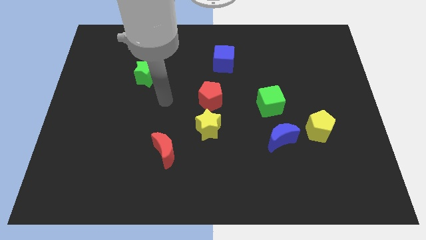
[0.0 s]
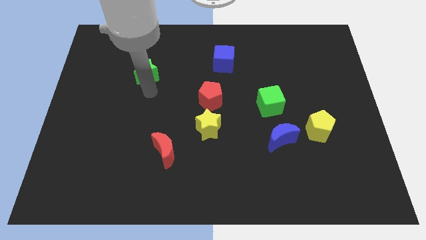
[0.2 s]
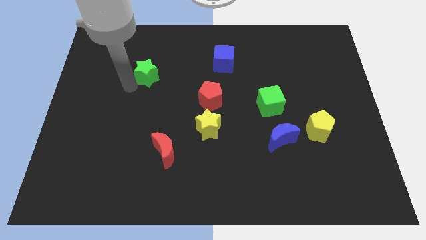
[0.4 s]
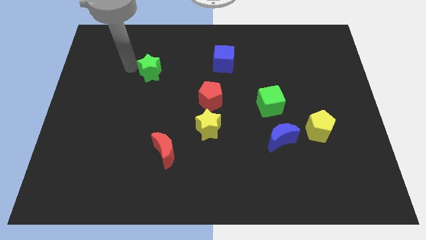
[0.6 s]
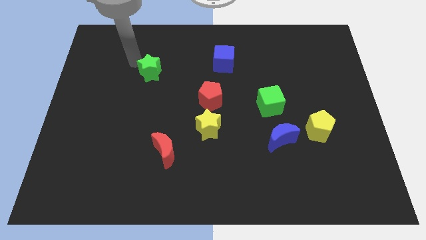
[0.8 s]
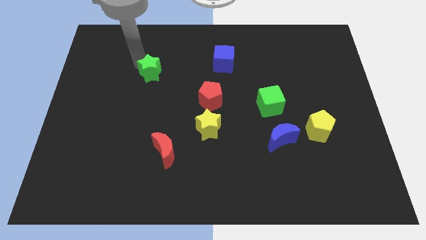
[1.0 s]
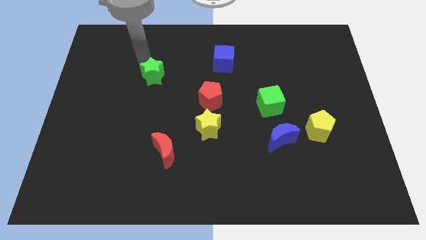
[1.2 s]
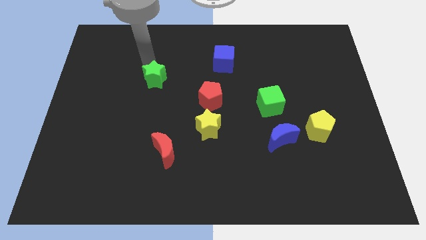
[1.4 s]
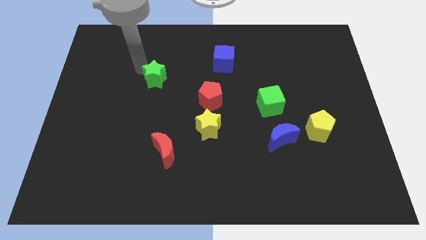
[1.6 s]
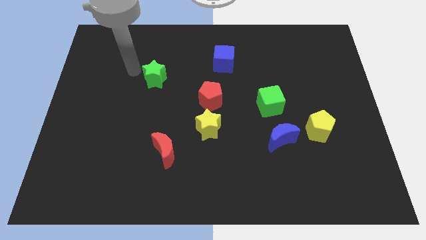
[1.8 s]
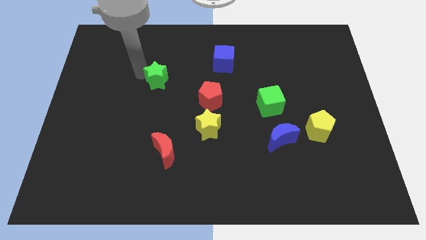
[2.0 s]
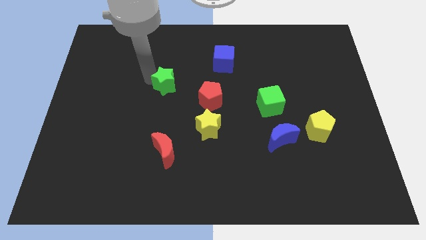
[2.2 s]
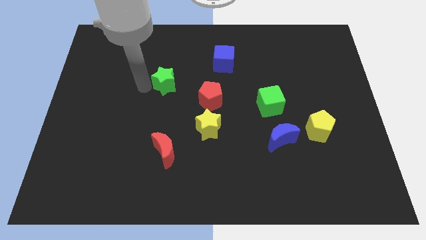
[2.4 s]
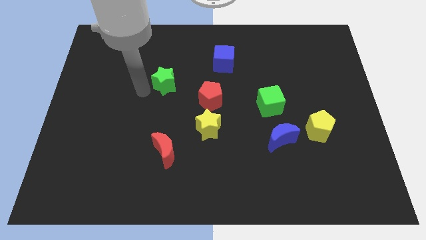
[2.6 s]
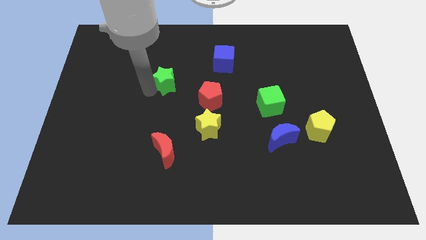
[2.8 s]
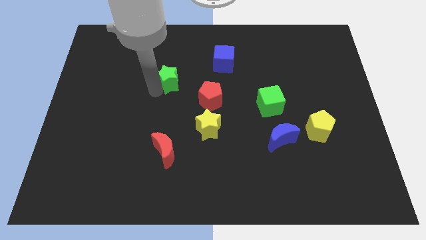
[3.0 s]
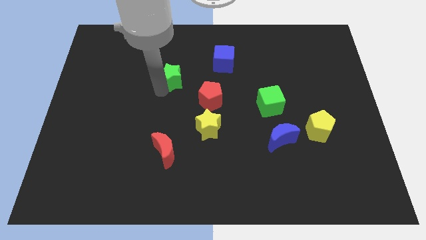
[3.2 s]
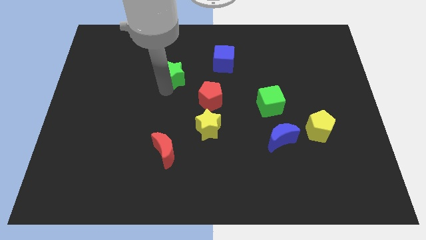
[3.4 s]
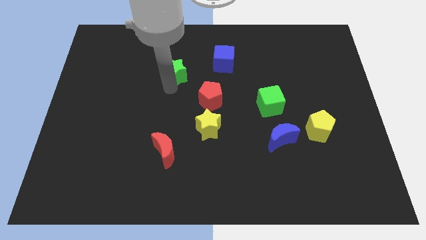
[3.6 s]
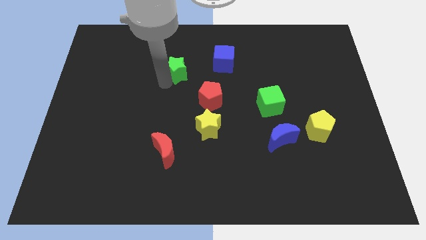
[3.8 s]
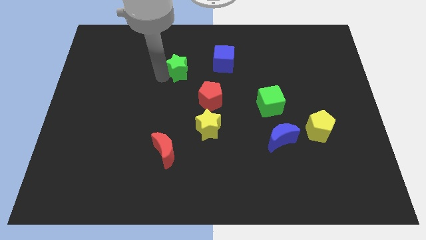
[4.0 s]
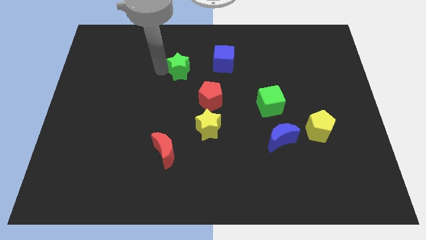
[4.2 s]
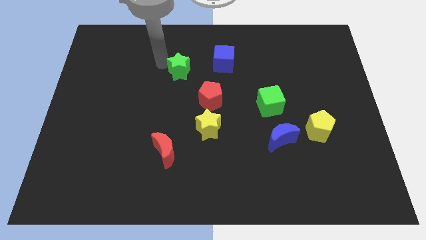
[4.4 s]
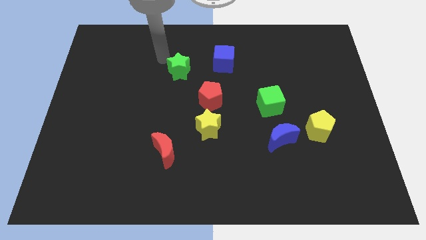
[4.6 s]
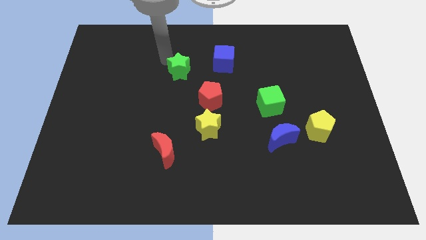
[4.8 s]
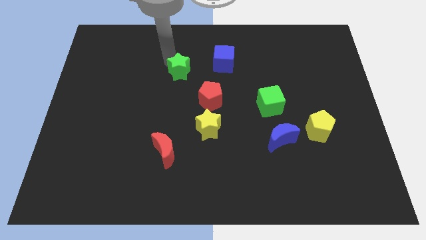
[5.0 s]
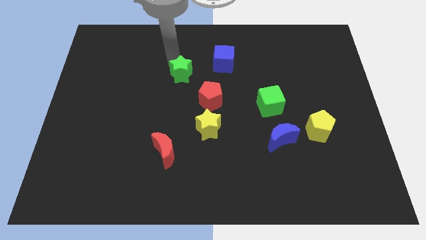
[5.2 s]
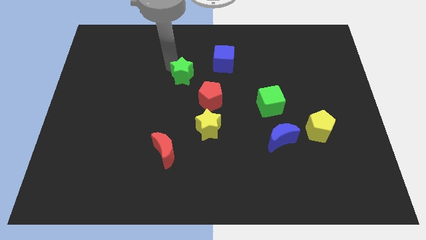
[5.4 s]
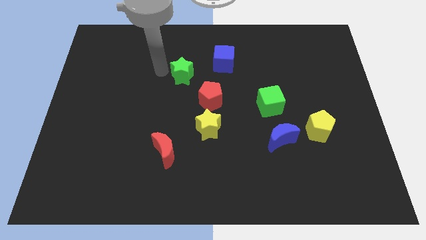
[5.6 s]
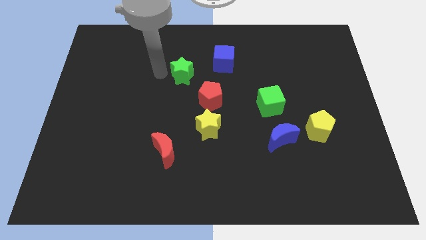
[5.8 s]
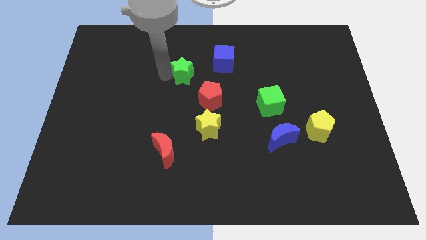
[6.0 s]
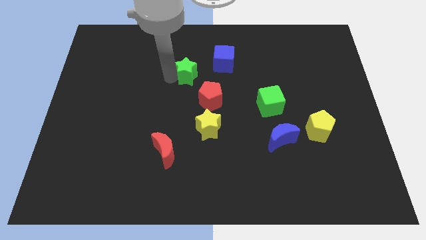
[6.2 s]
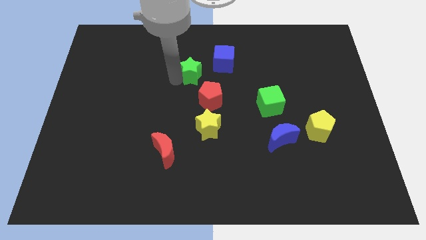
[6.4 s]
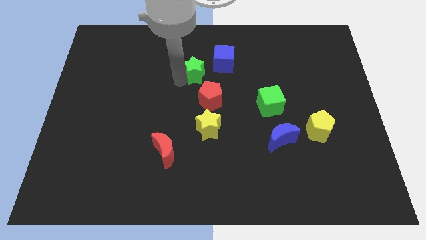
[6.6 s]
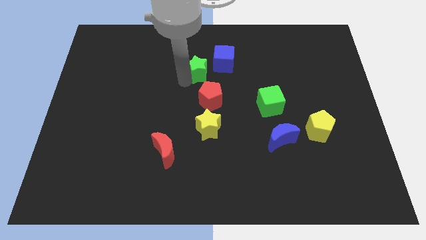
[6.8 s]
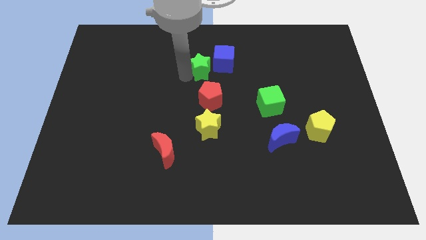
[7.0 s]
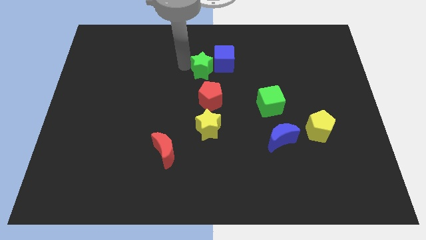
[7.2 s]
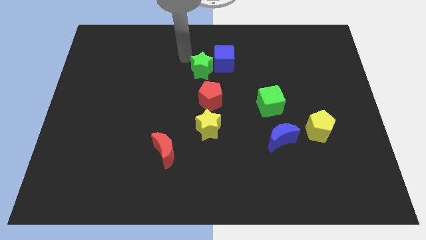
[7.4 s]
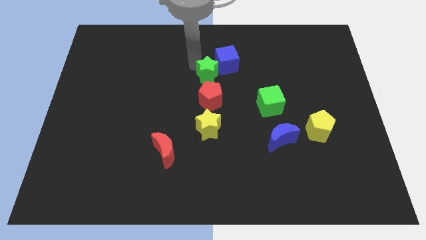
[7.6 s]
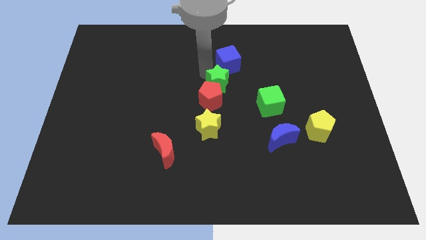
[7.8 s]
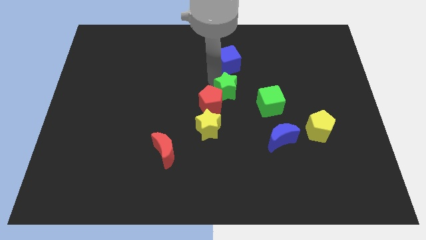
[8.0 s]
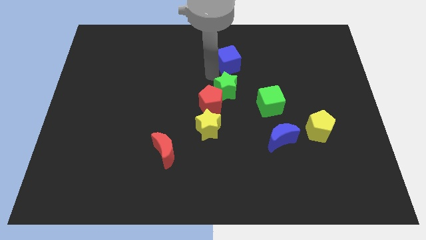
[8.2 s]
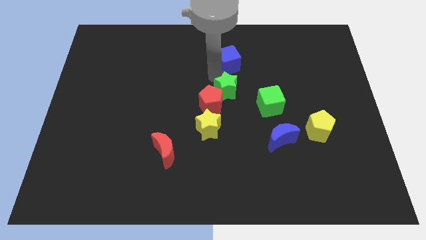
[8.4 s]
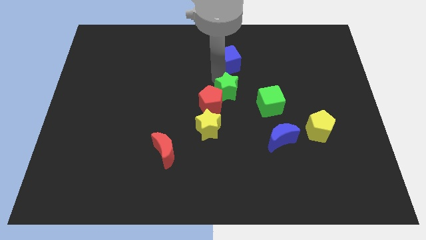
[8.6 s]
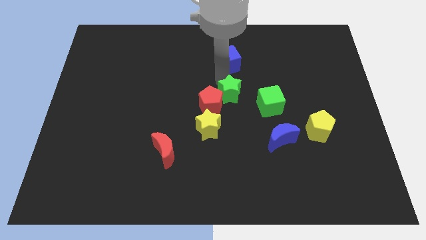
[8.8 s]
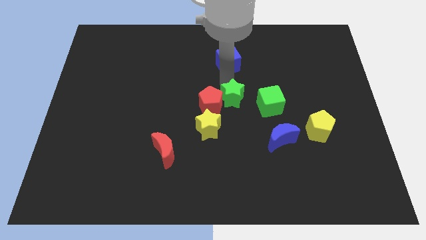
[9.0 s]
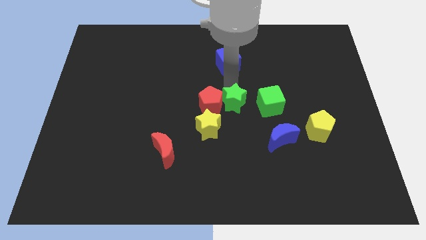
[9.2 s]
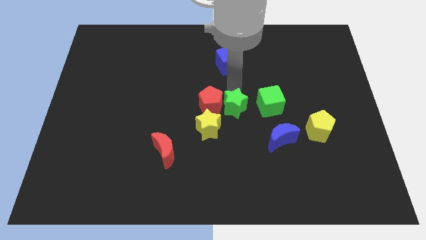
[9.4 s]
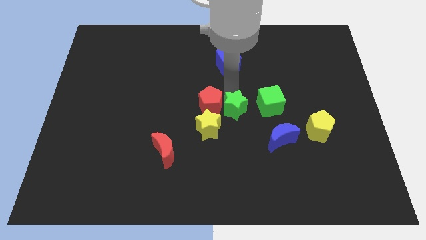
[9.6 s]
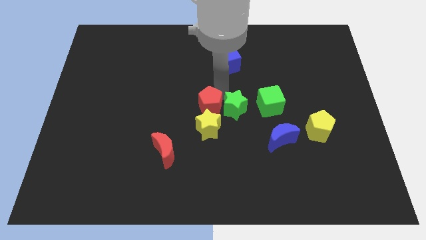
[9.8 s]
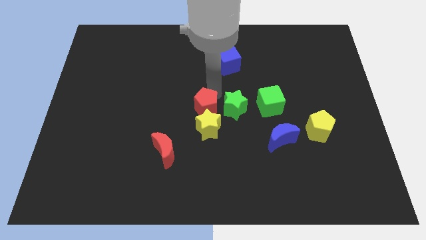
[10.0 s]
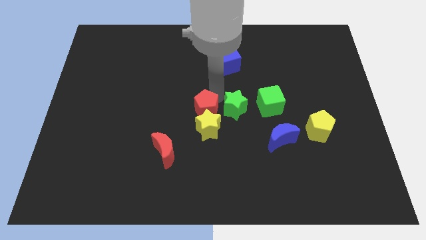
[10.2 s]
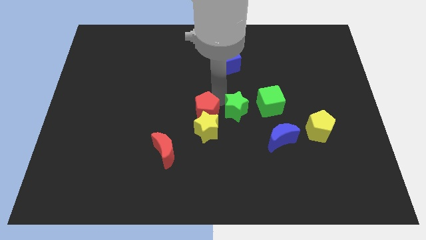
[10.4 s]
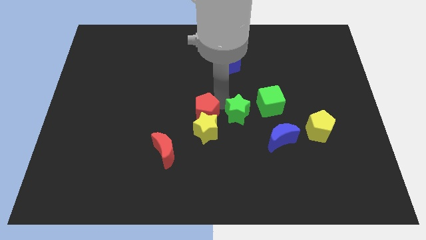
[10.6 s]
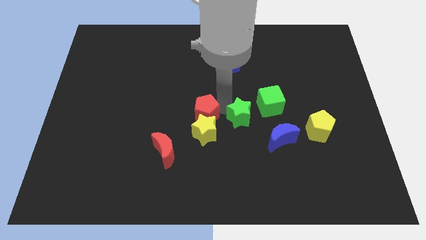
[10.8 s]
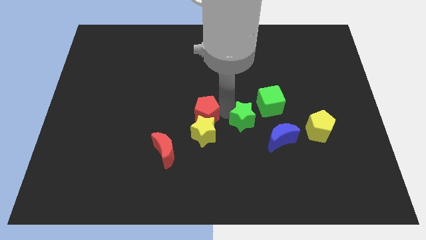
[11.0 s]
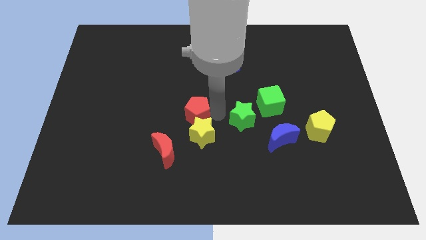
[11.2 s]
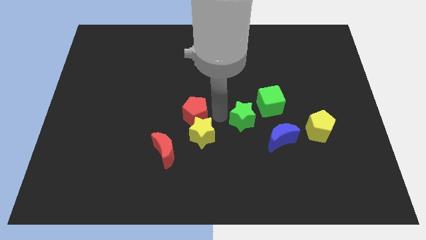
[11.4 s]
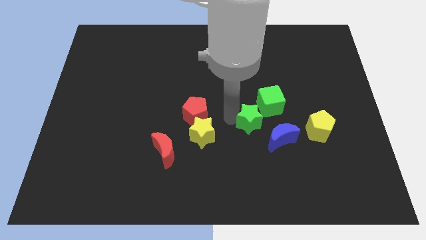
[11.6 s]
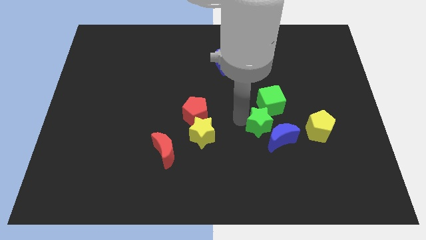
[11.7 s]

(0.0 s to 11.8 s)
slide the green star towards the blue moon

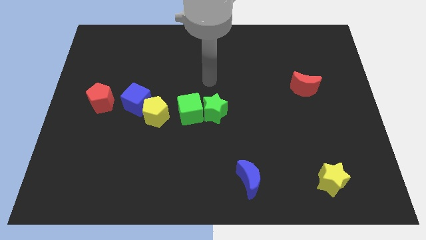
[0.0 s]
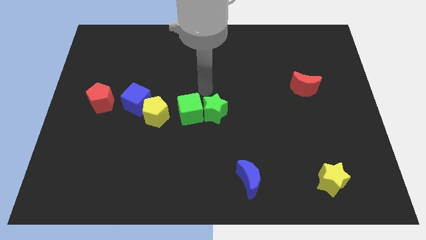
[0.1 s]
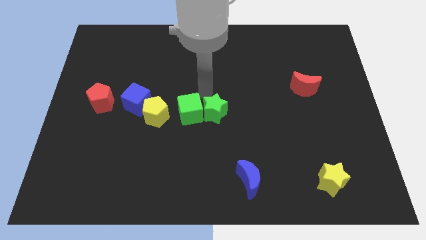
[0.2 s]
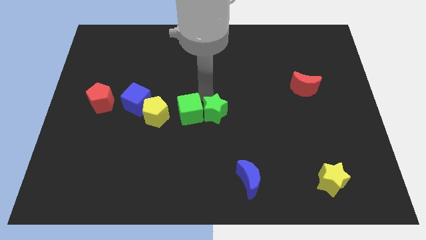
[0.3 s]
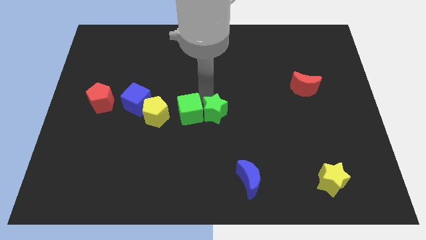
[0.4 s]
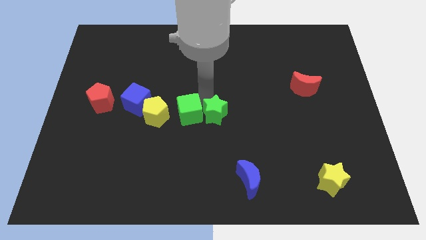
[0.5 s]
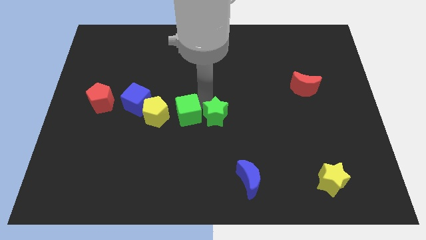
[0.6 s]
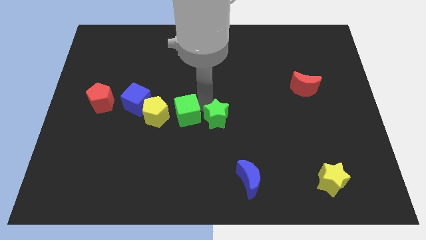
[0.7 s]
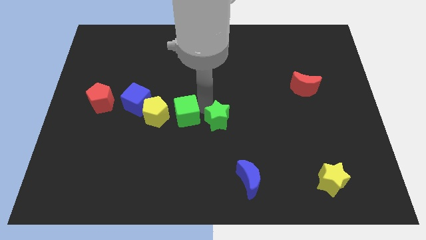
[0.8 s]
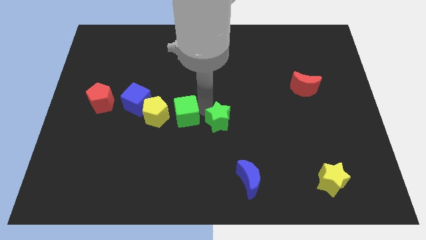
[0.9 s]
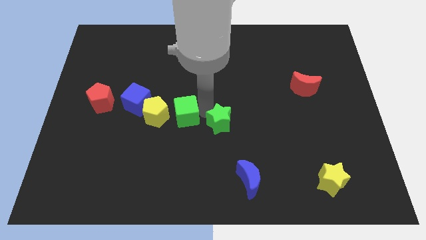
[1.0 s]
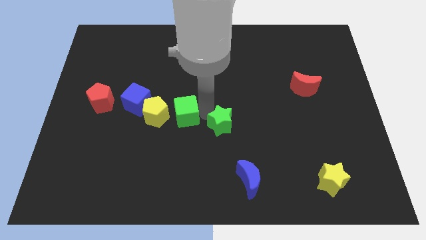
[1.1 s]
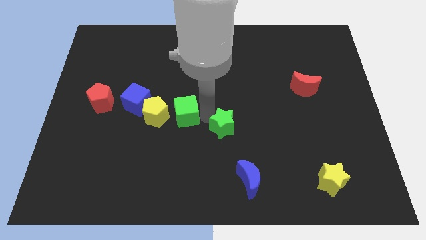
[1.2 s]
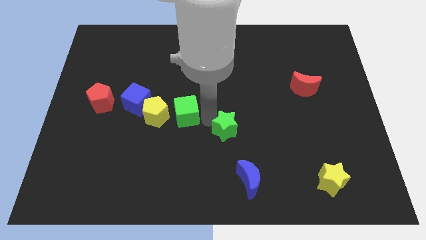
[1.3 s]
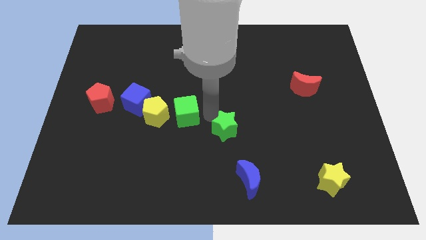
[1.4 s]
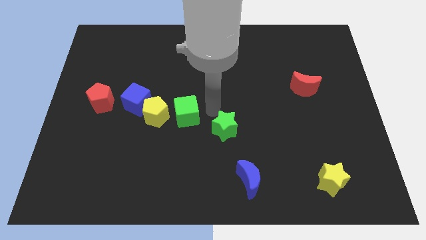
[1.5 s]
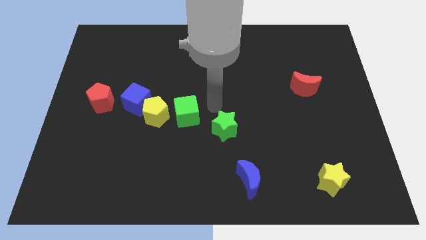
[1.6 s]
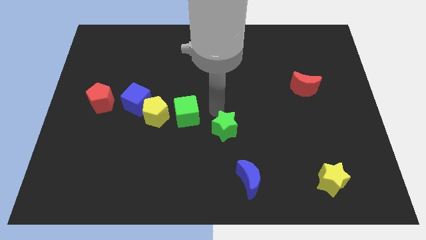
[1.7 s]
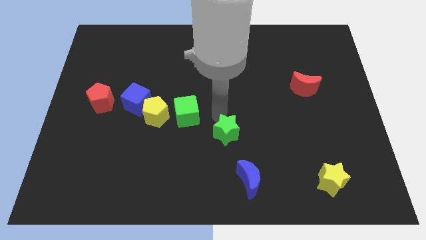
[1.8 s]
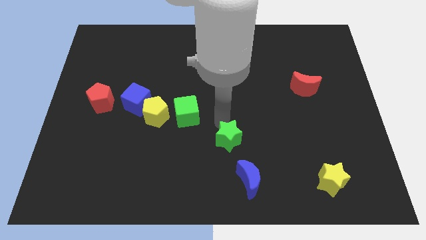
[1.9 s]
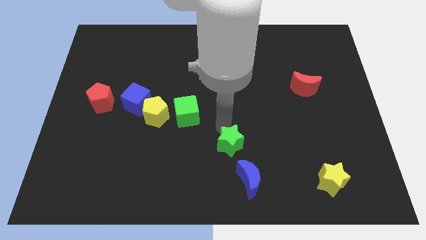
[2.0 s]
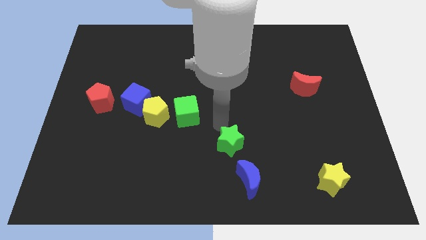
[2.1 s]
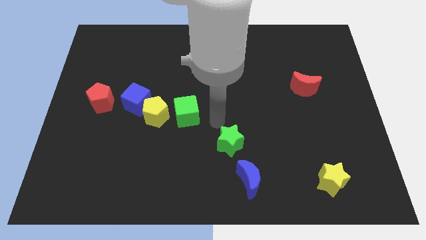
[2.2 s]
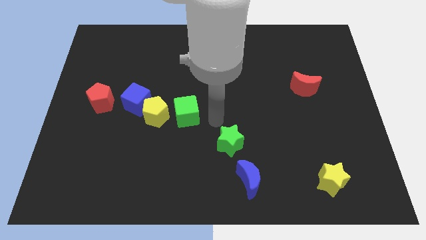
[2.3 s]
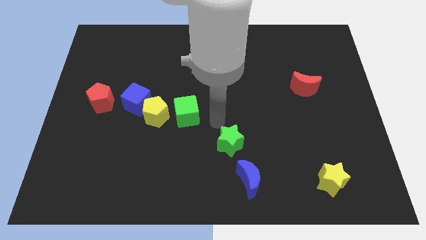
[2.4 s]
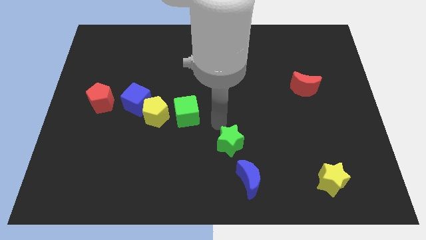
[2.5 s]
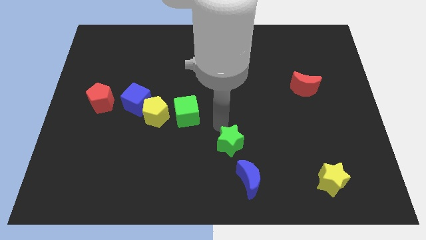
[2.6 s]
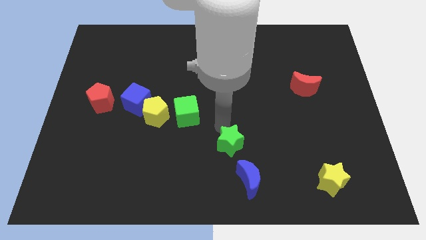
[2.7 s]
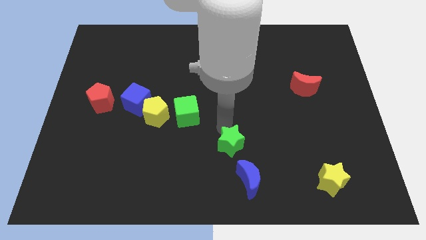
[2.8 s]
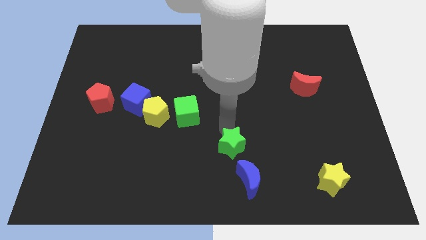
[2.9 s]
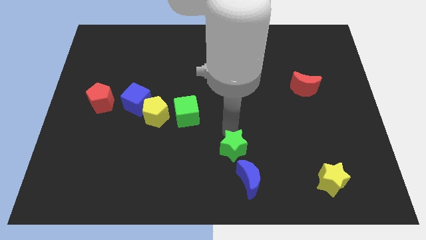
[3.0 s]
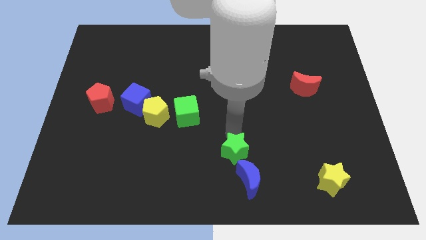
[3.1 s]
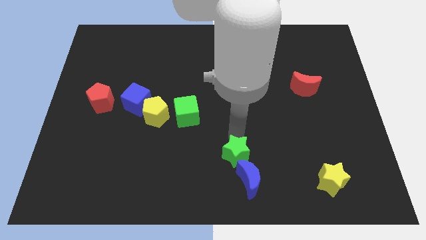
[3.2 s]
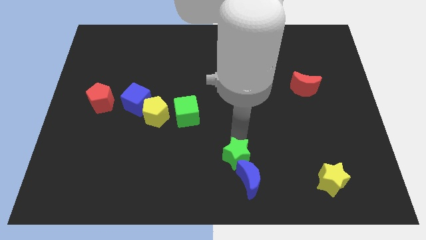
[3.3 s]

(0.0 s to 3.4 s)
push the green star close to the blue moon
